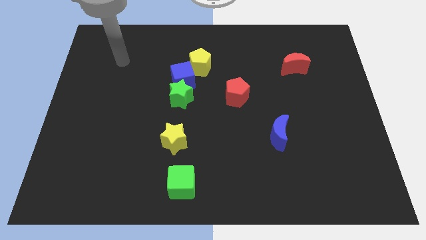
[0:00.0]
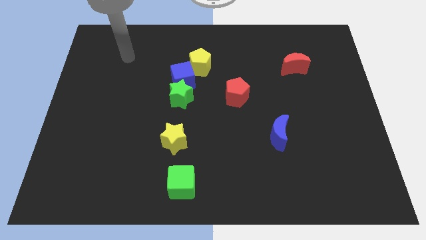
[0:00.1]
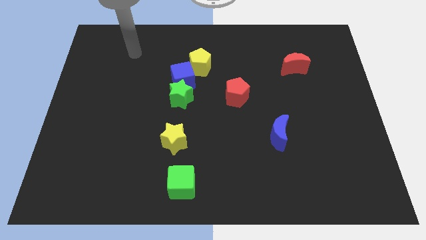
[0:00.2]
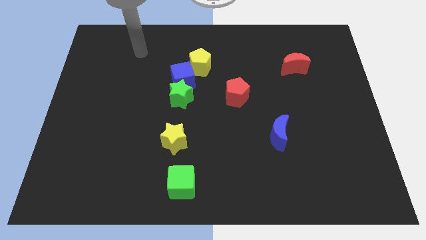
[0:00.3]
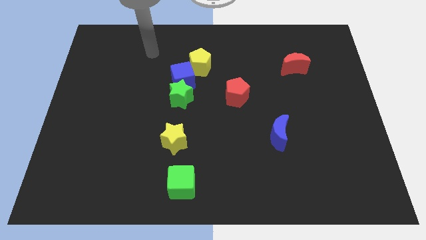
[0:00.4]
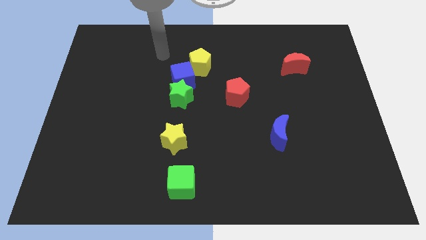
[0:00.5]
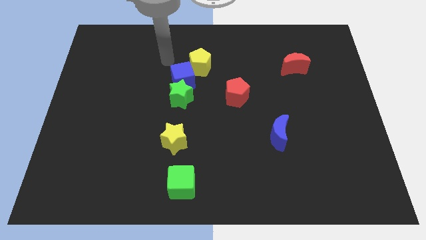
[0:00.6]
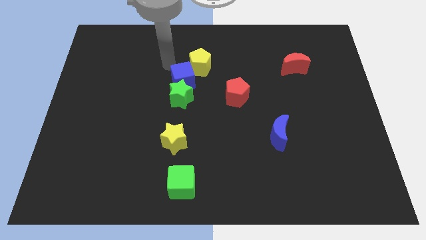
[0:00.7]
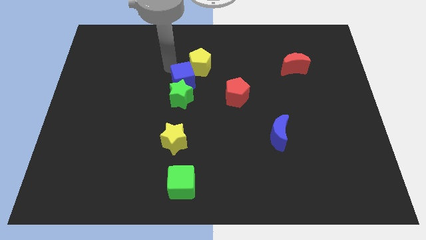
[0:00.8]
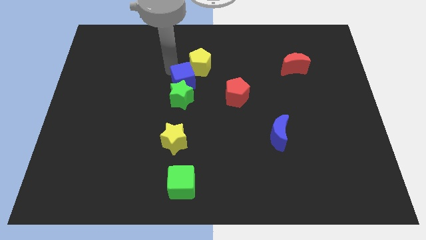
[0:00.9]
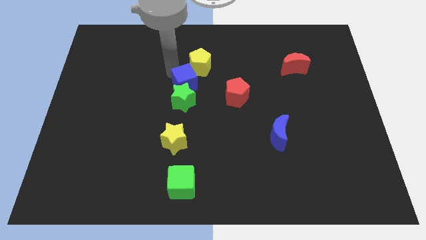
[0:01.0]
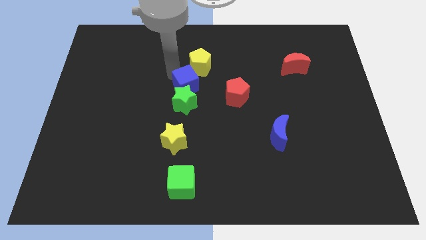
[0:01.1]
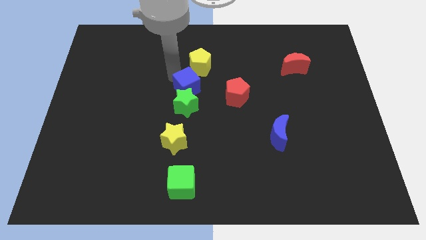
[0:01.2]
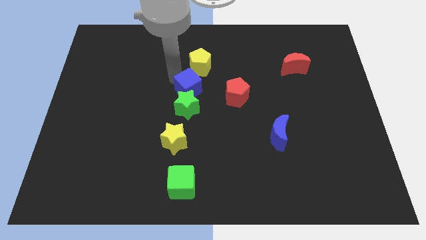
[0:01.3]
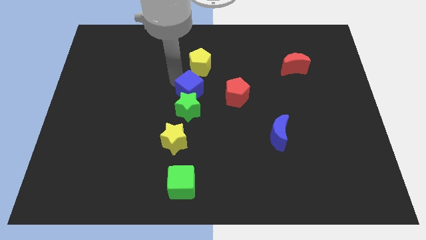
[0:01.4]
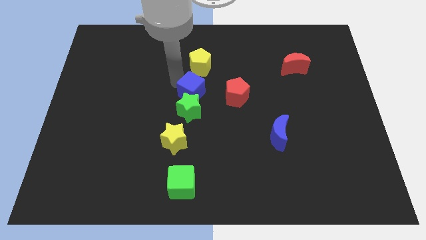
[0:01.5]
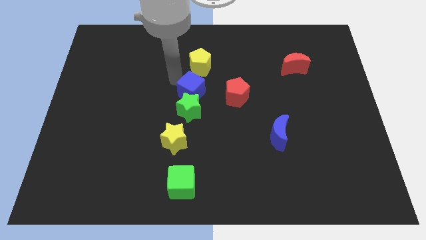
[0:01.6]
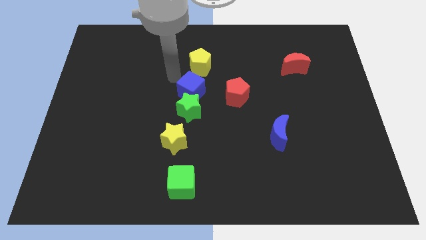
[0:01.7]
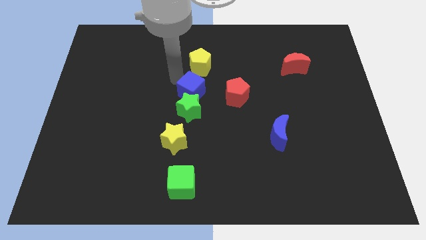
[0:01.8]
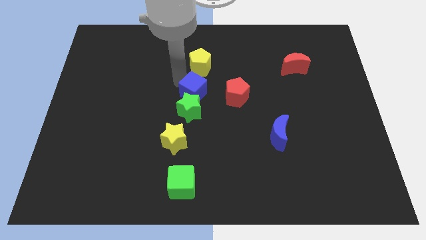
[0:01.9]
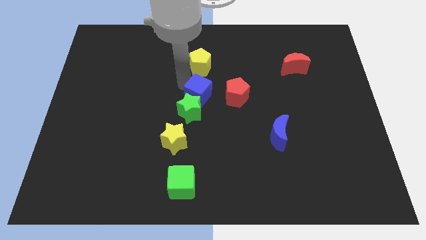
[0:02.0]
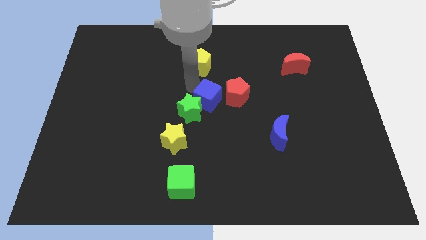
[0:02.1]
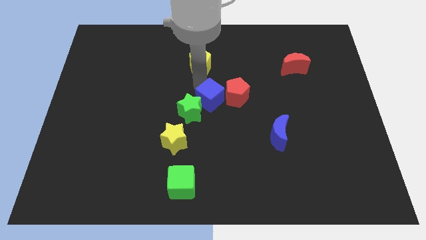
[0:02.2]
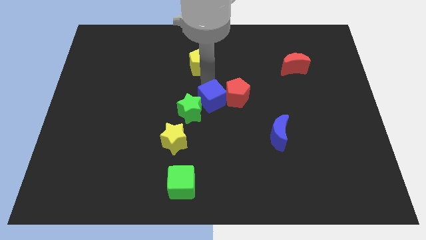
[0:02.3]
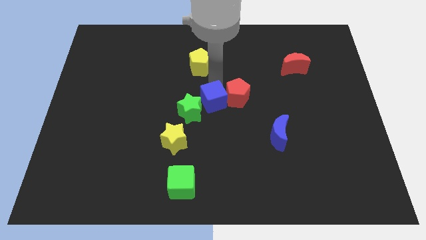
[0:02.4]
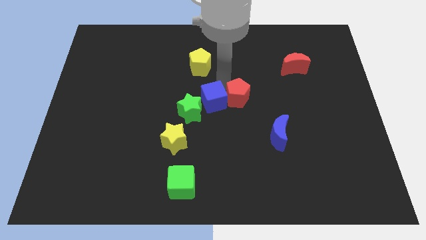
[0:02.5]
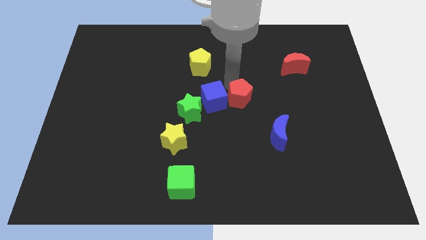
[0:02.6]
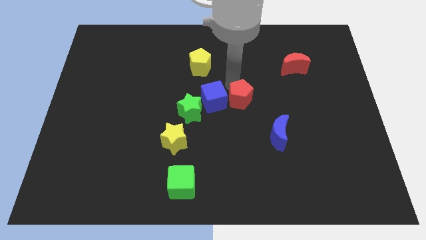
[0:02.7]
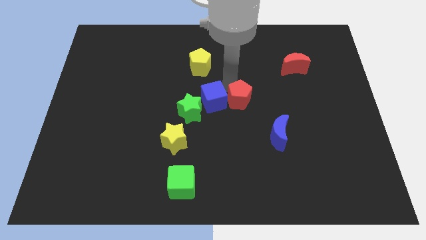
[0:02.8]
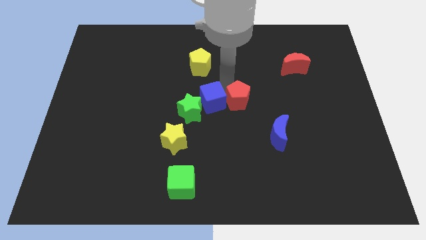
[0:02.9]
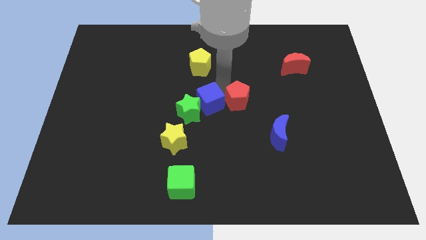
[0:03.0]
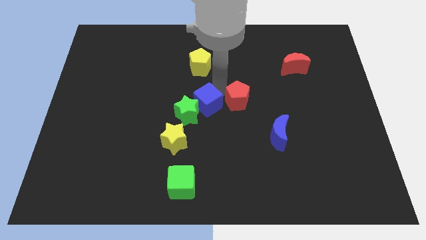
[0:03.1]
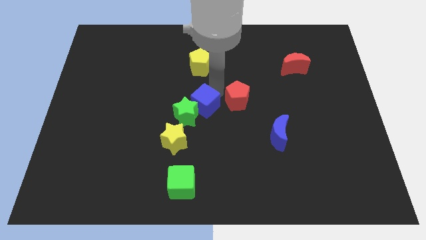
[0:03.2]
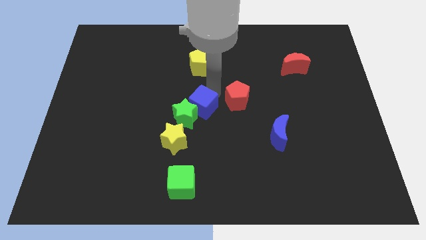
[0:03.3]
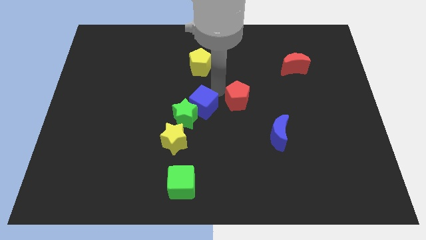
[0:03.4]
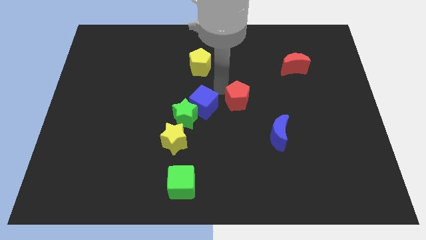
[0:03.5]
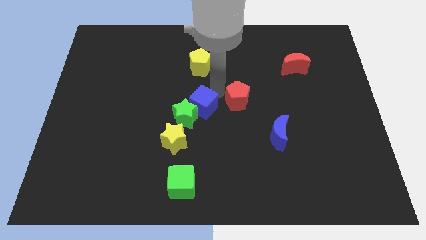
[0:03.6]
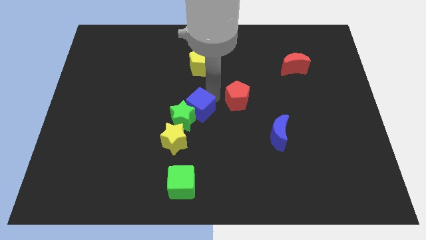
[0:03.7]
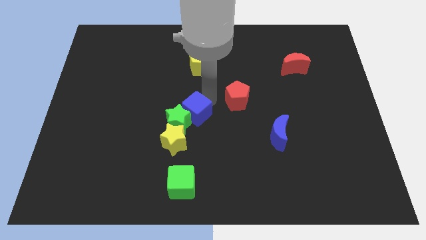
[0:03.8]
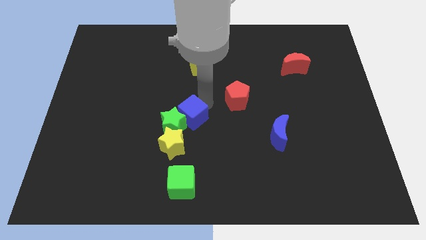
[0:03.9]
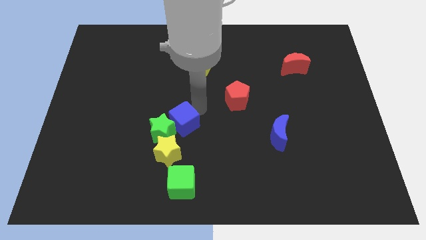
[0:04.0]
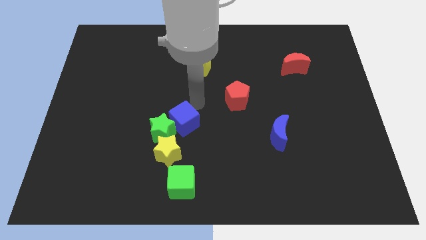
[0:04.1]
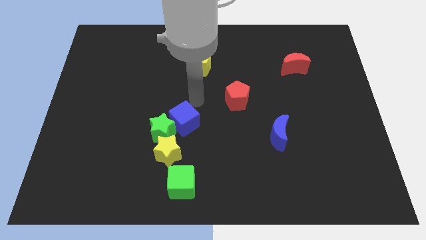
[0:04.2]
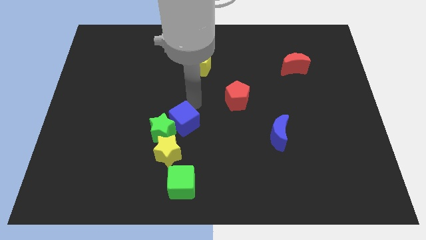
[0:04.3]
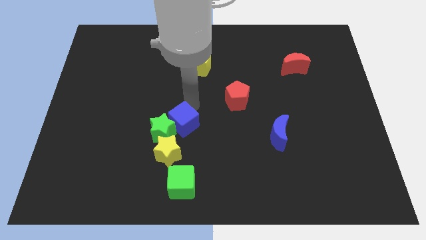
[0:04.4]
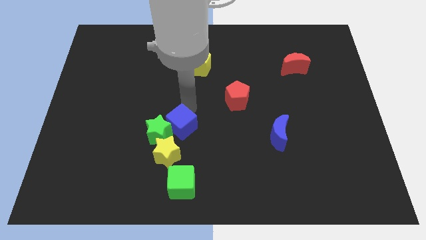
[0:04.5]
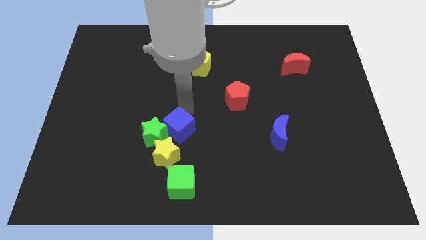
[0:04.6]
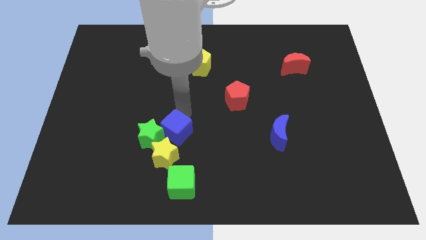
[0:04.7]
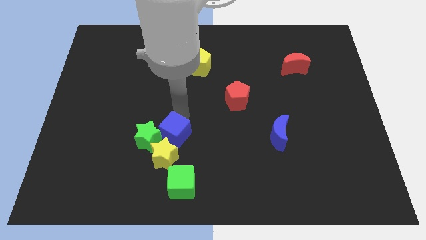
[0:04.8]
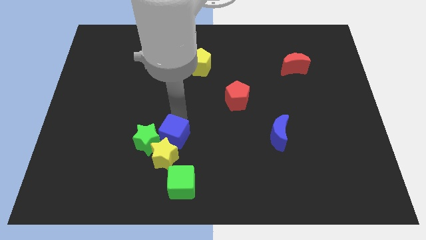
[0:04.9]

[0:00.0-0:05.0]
push the blue cube towards the yellow star

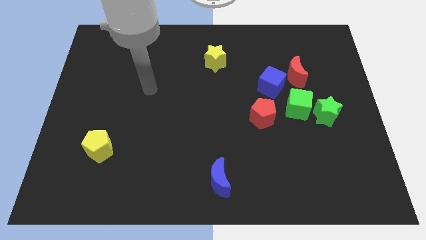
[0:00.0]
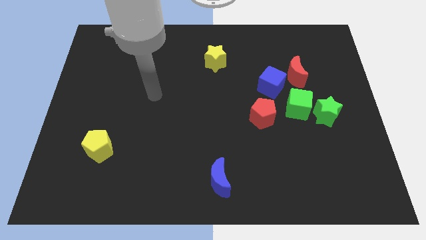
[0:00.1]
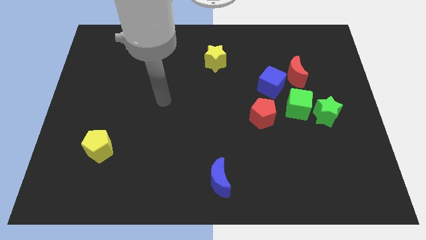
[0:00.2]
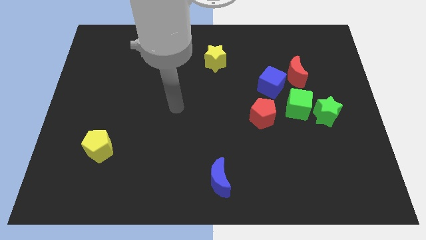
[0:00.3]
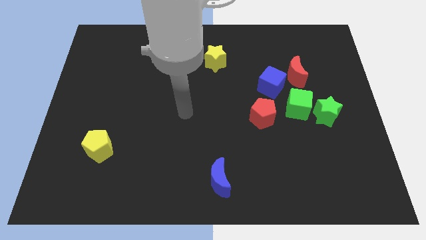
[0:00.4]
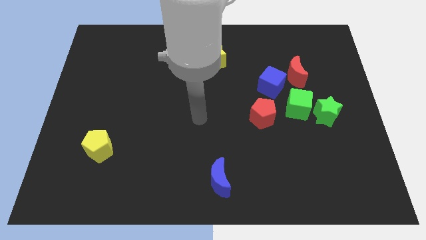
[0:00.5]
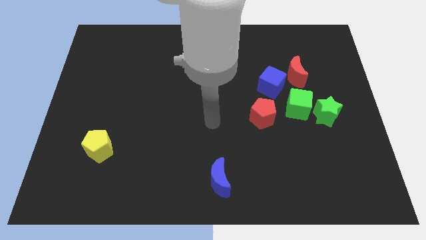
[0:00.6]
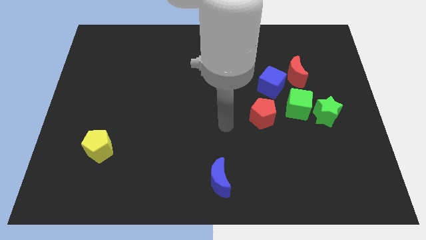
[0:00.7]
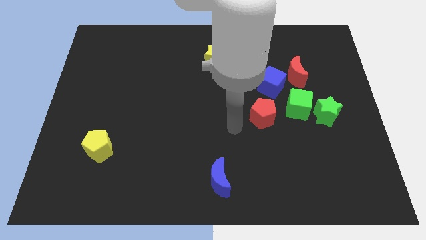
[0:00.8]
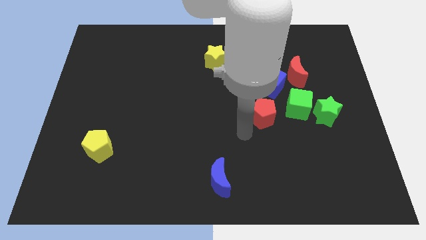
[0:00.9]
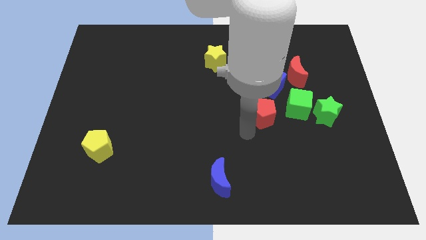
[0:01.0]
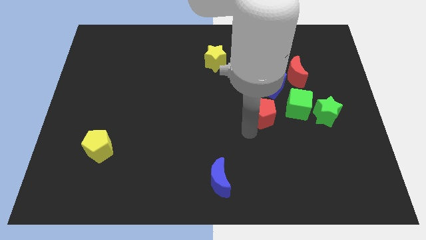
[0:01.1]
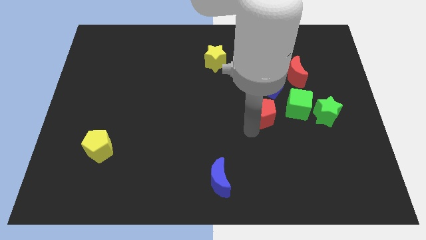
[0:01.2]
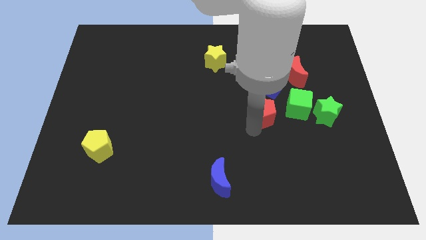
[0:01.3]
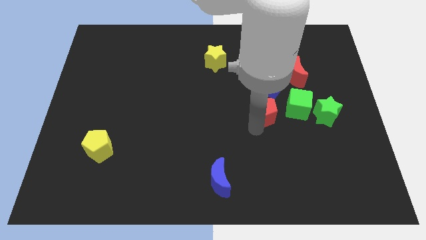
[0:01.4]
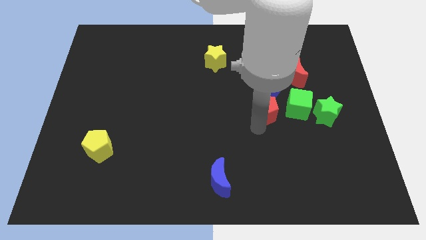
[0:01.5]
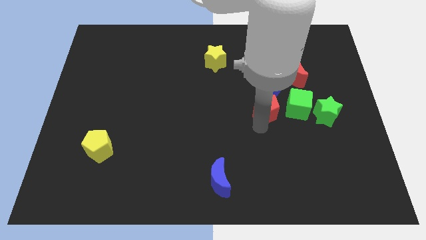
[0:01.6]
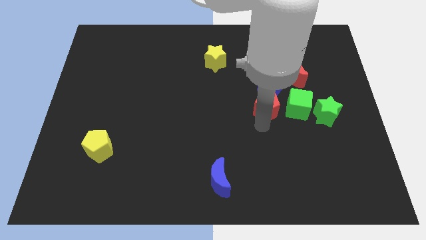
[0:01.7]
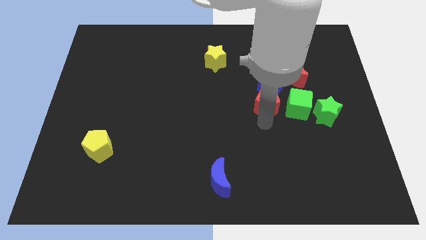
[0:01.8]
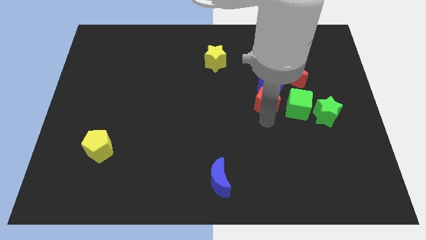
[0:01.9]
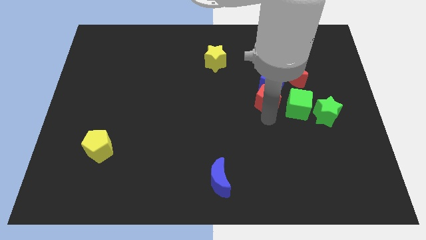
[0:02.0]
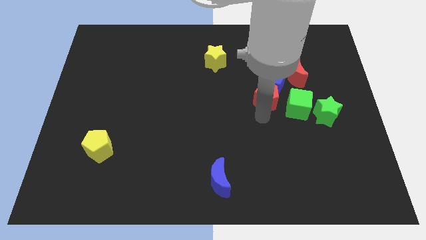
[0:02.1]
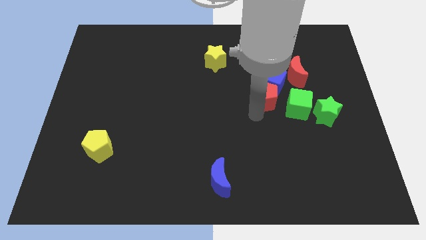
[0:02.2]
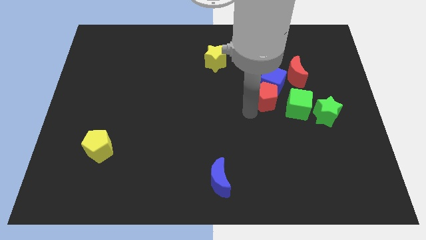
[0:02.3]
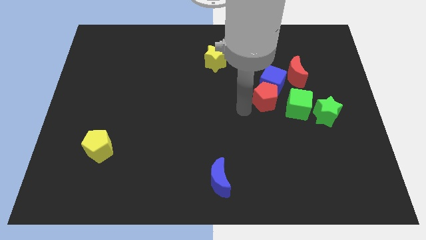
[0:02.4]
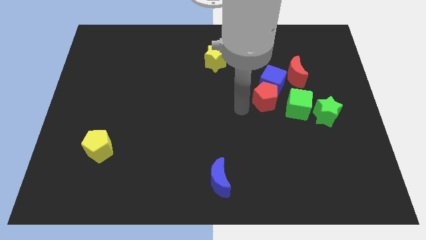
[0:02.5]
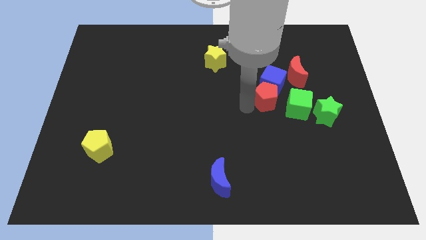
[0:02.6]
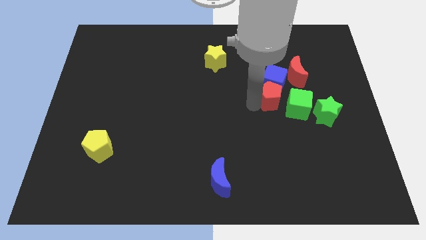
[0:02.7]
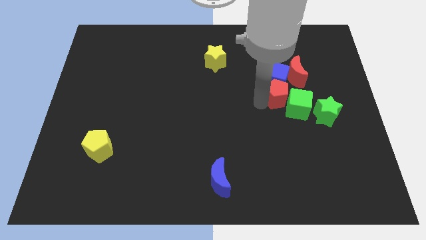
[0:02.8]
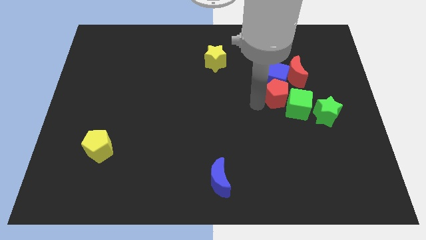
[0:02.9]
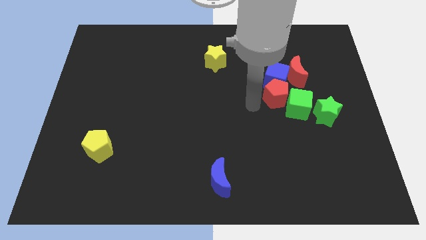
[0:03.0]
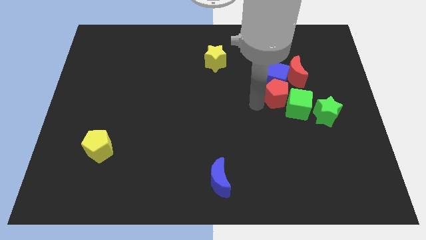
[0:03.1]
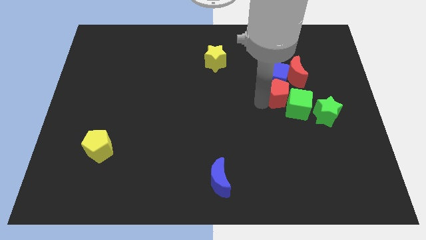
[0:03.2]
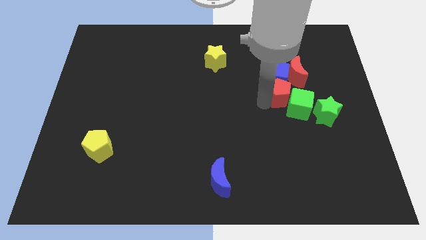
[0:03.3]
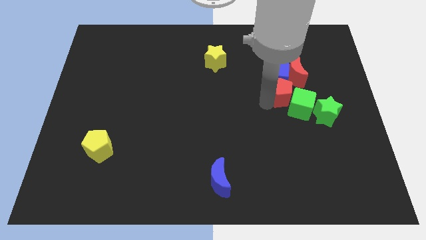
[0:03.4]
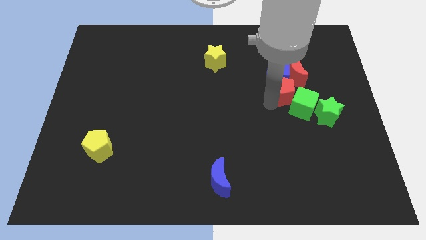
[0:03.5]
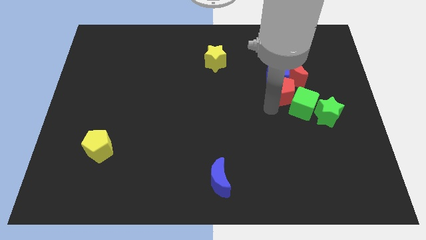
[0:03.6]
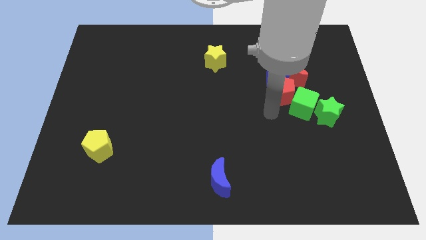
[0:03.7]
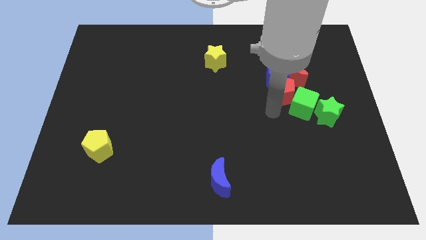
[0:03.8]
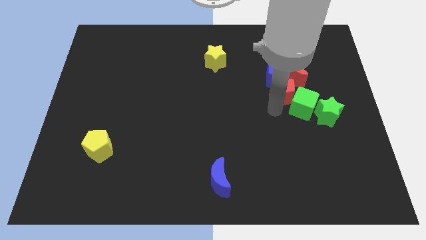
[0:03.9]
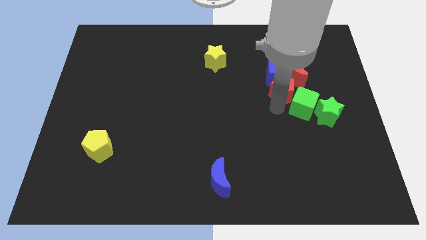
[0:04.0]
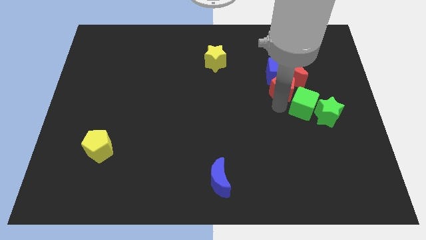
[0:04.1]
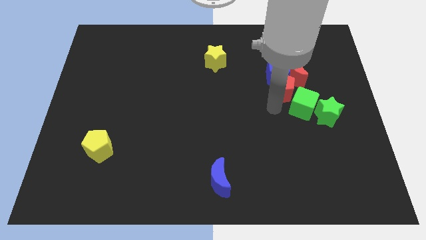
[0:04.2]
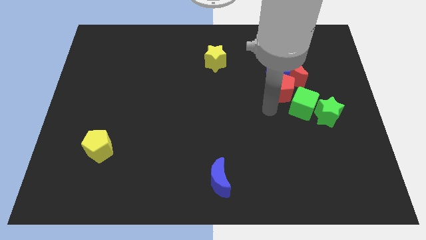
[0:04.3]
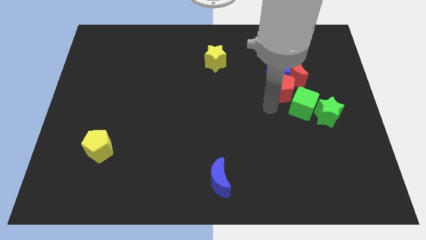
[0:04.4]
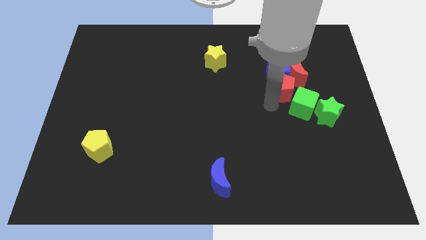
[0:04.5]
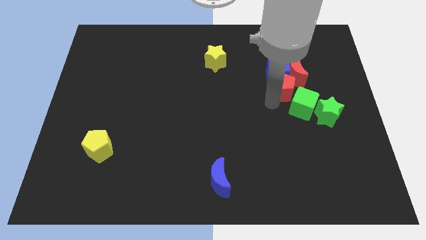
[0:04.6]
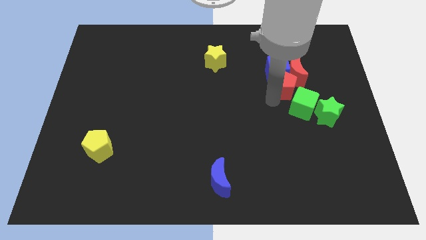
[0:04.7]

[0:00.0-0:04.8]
slide the red pentagon to the red moon
